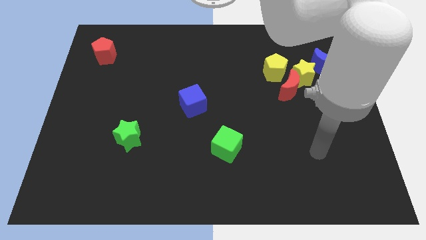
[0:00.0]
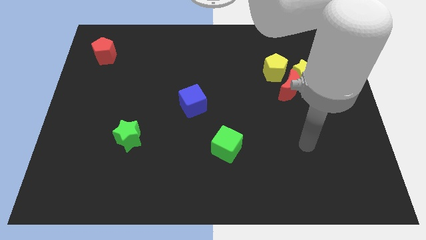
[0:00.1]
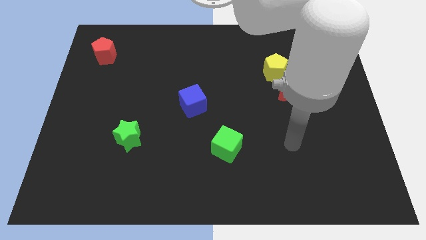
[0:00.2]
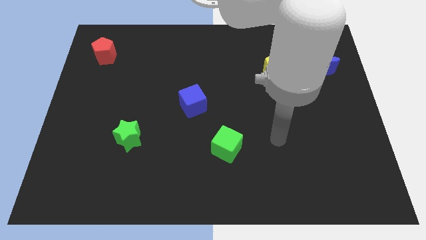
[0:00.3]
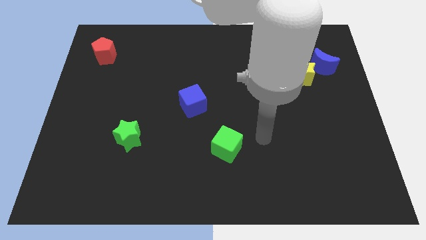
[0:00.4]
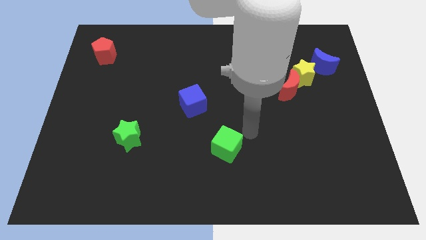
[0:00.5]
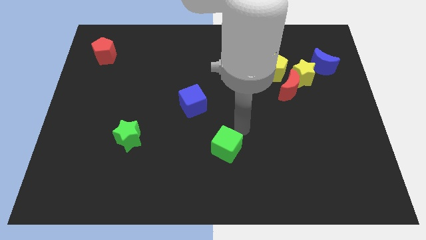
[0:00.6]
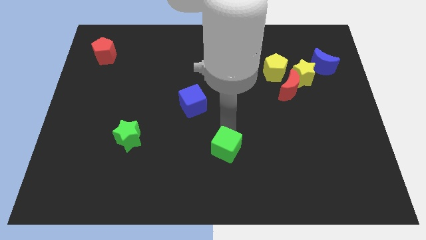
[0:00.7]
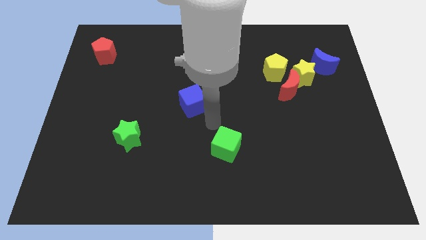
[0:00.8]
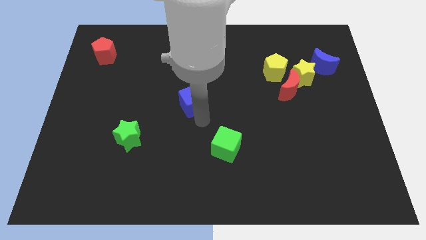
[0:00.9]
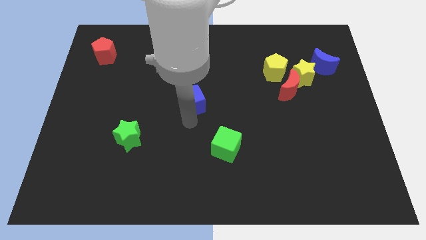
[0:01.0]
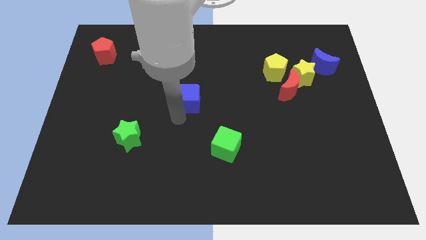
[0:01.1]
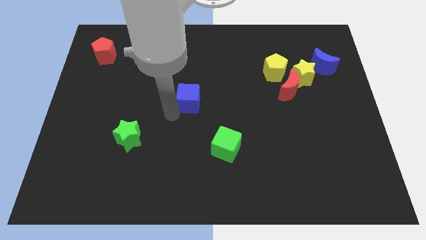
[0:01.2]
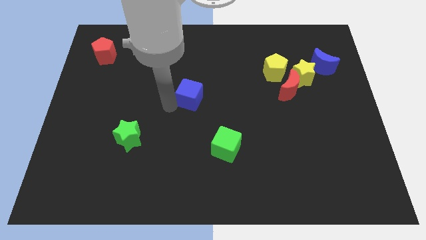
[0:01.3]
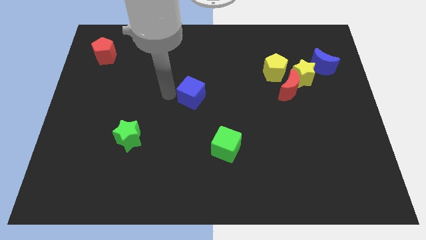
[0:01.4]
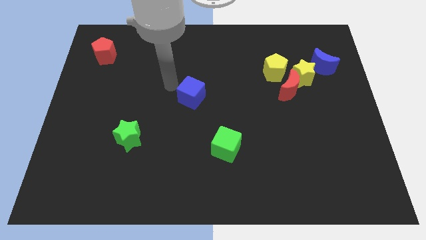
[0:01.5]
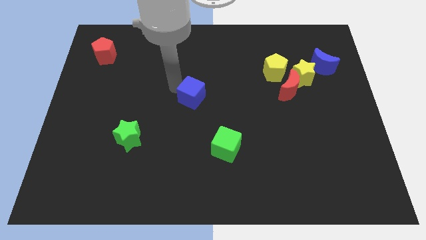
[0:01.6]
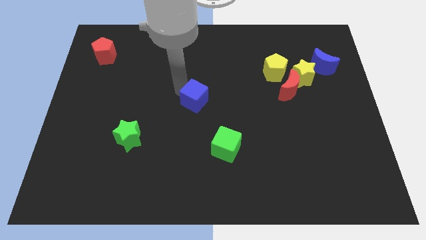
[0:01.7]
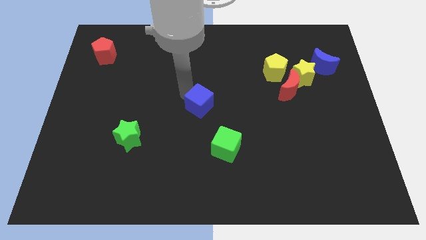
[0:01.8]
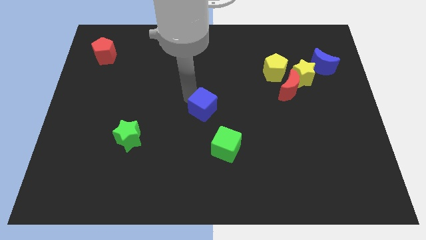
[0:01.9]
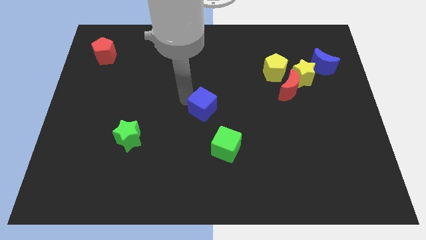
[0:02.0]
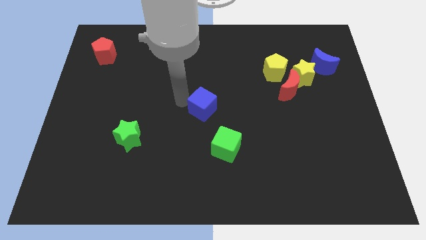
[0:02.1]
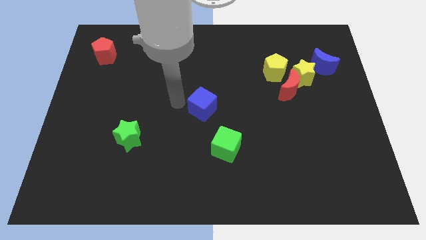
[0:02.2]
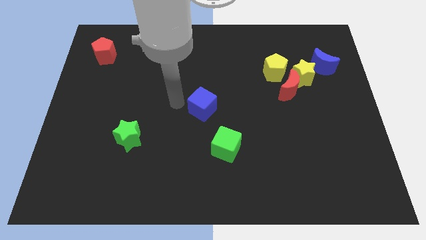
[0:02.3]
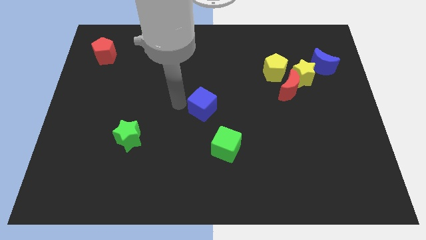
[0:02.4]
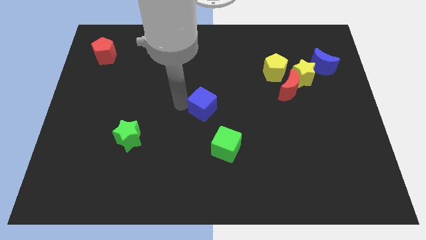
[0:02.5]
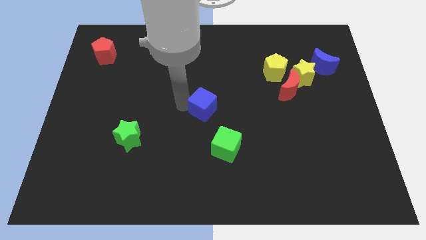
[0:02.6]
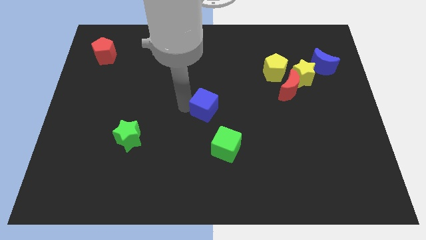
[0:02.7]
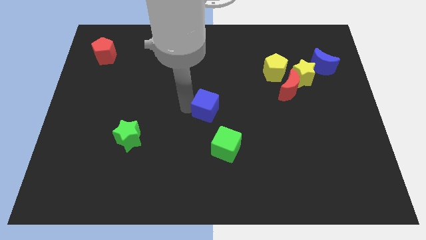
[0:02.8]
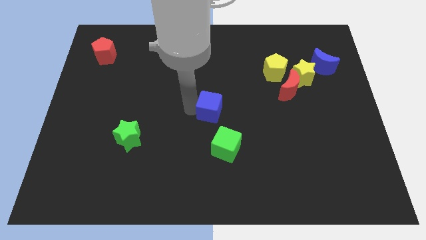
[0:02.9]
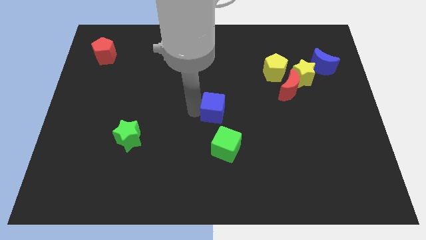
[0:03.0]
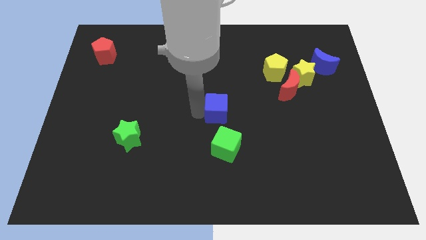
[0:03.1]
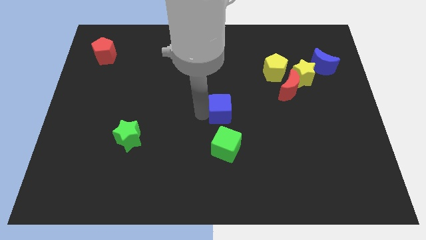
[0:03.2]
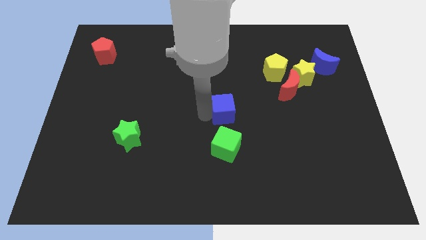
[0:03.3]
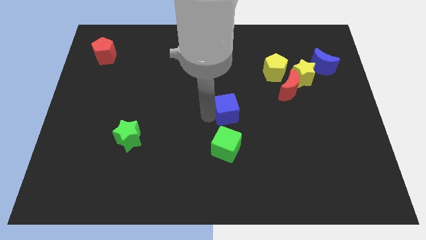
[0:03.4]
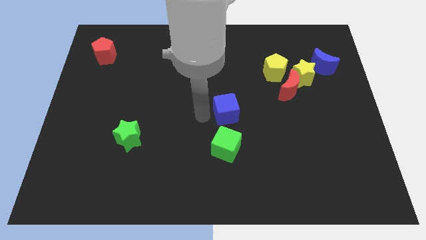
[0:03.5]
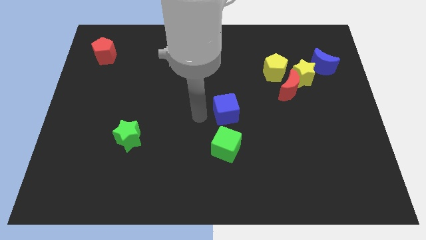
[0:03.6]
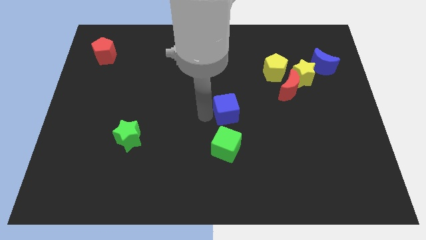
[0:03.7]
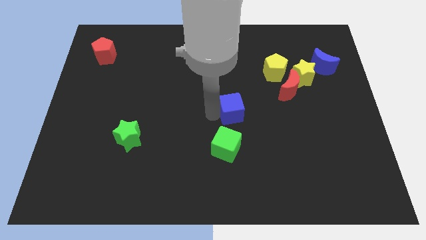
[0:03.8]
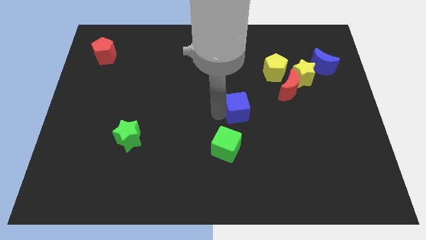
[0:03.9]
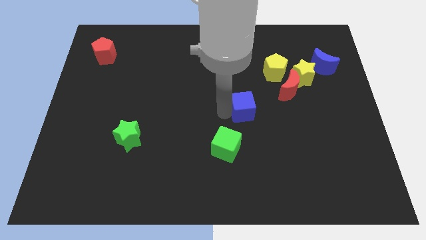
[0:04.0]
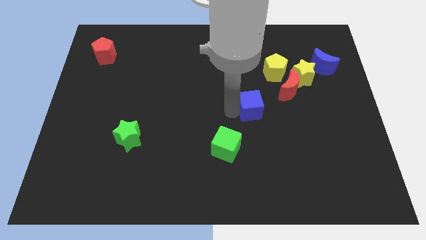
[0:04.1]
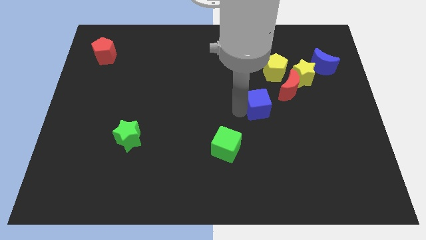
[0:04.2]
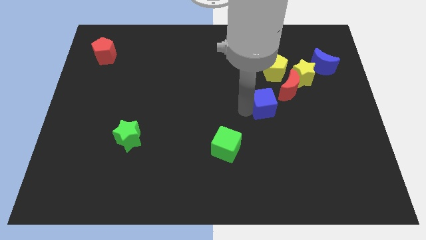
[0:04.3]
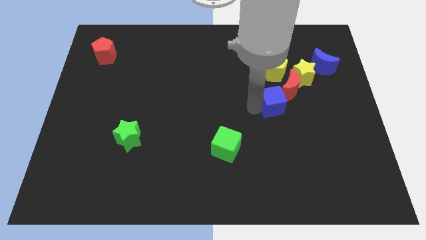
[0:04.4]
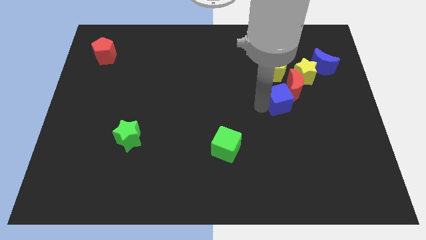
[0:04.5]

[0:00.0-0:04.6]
push the blue cube right

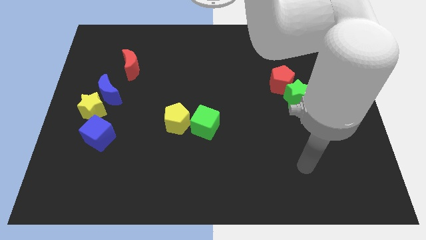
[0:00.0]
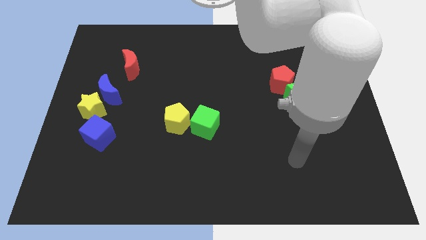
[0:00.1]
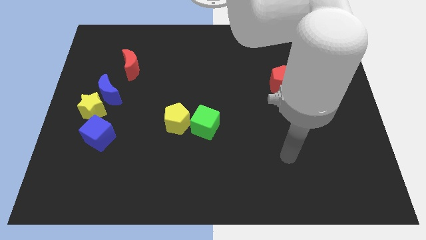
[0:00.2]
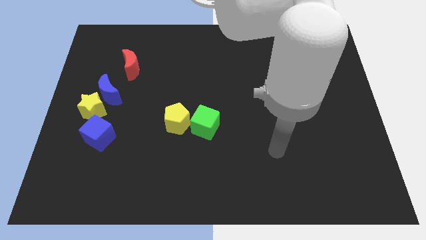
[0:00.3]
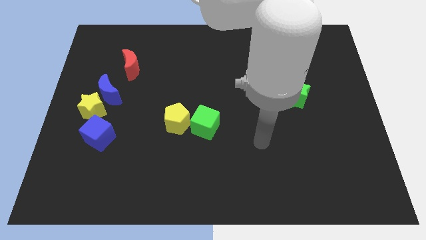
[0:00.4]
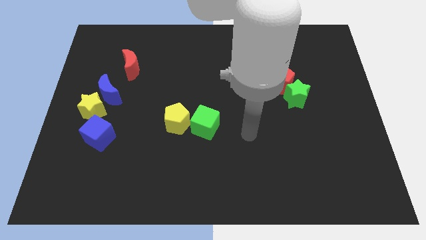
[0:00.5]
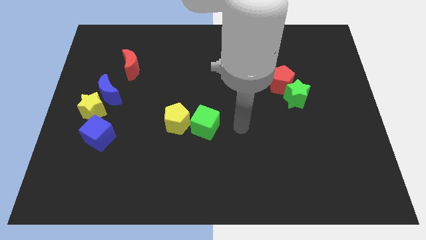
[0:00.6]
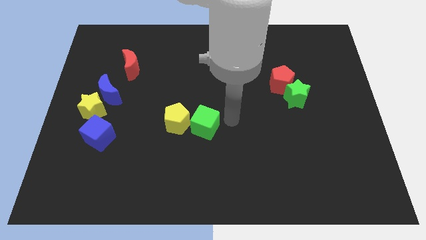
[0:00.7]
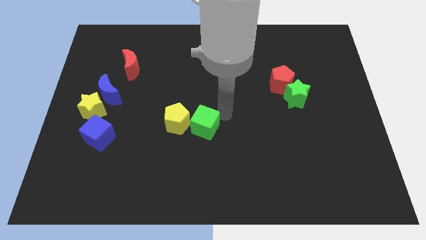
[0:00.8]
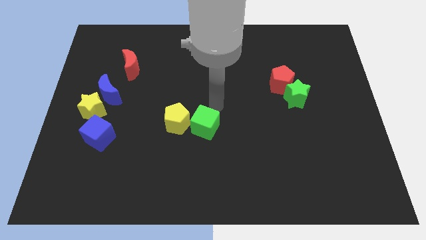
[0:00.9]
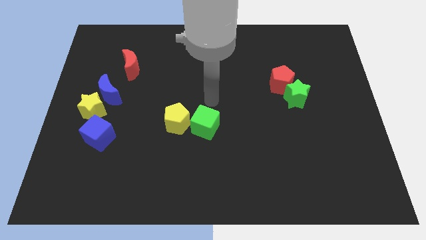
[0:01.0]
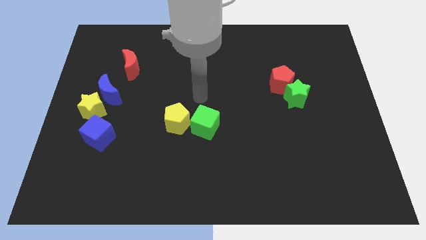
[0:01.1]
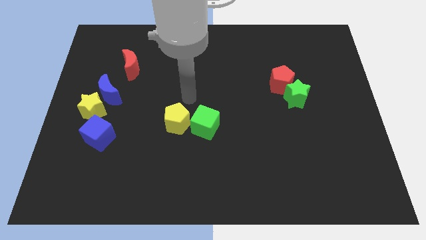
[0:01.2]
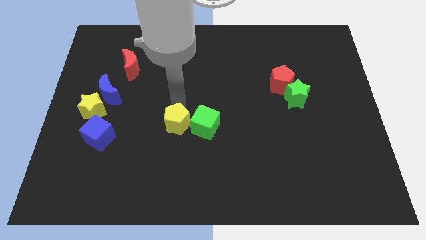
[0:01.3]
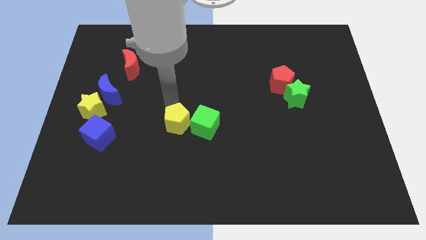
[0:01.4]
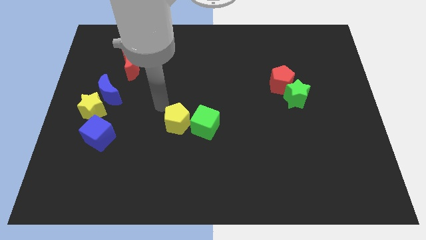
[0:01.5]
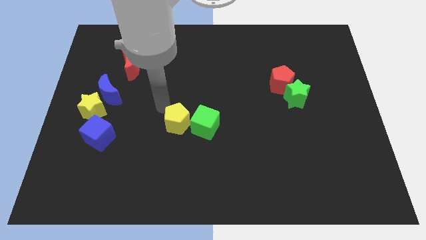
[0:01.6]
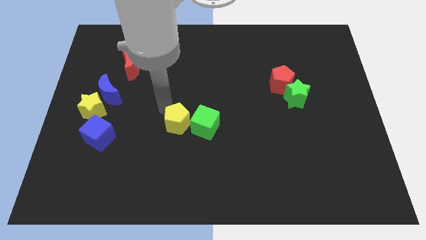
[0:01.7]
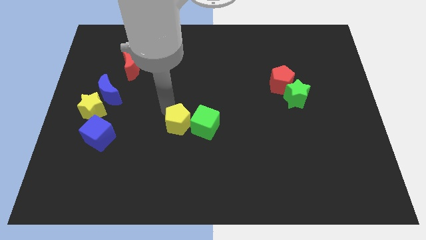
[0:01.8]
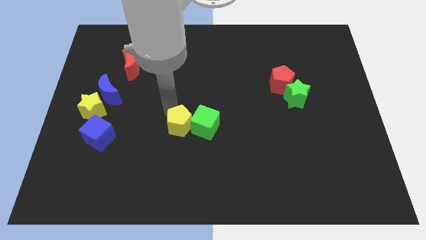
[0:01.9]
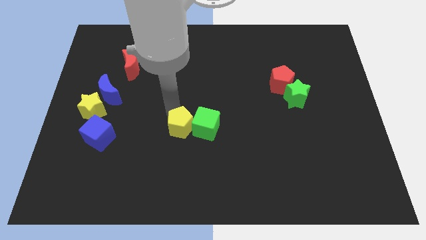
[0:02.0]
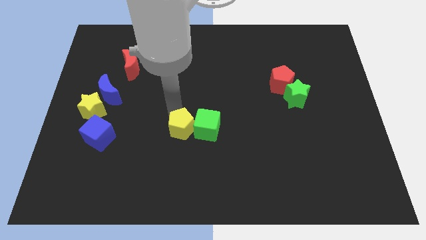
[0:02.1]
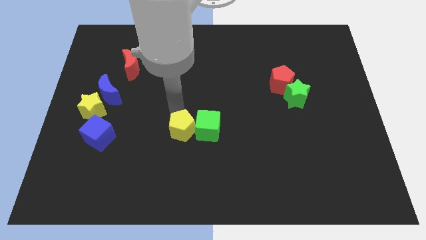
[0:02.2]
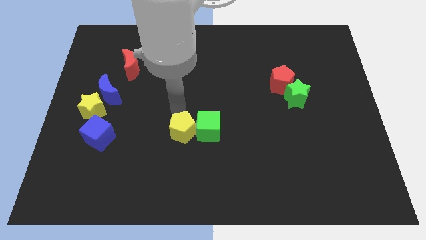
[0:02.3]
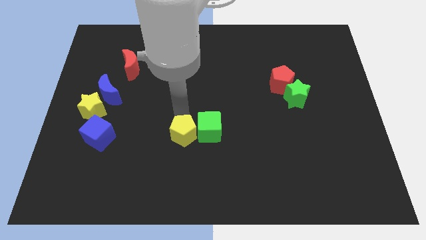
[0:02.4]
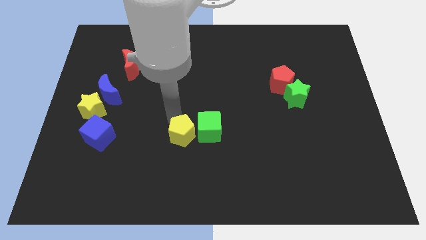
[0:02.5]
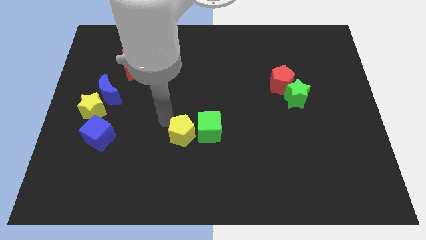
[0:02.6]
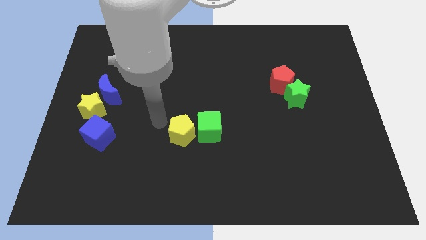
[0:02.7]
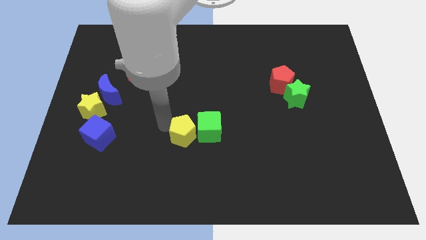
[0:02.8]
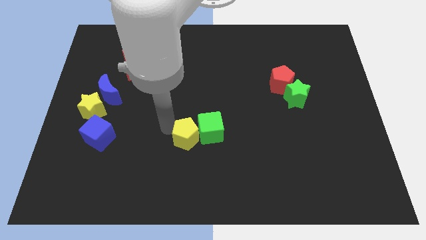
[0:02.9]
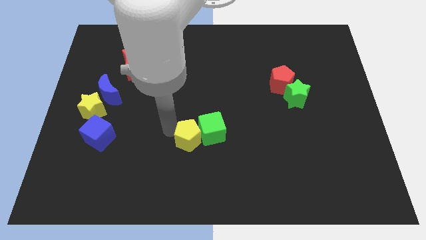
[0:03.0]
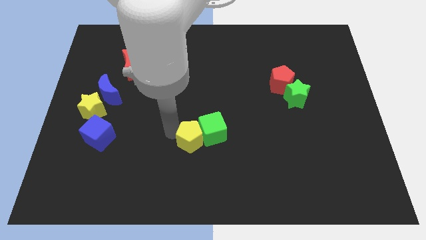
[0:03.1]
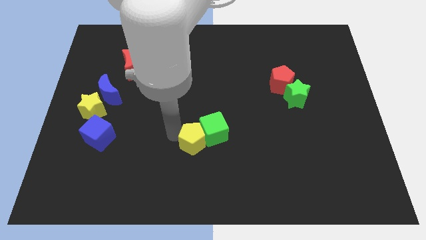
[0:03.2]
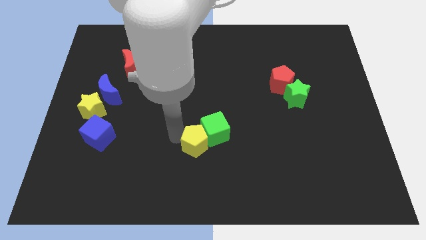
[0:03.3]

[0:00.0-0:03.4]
move the yellow pentagon a little bit down and to the right
